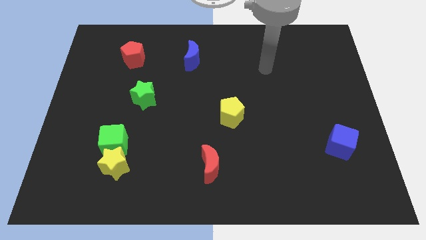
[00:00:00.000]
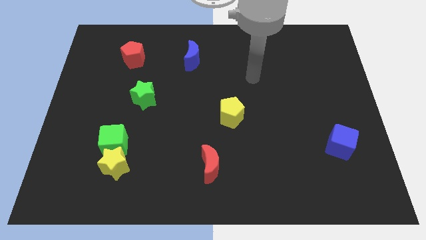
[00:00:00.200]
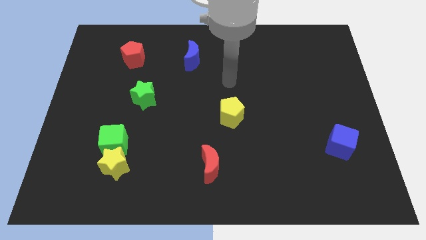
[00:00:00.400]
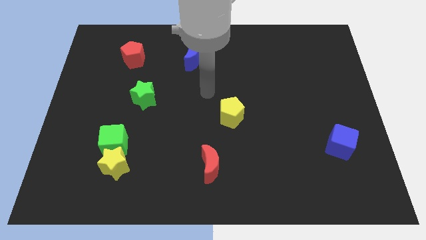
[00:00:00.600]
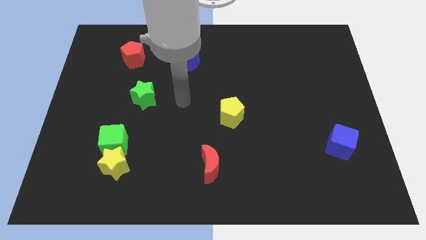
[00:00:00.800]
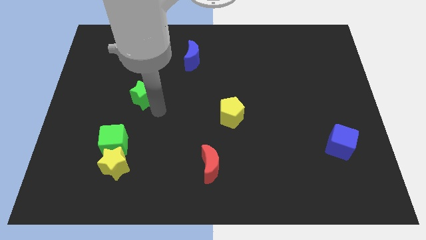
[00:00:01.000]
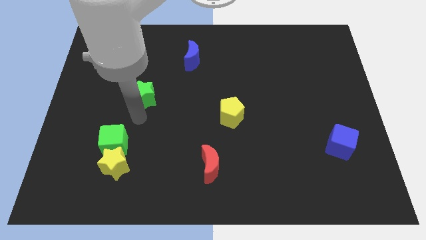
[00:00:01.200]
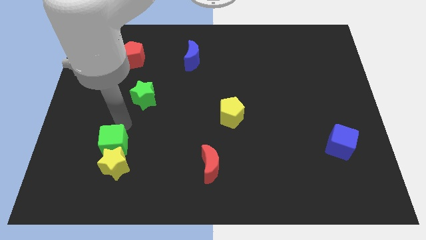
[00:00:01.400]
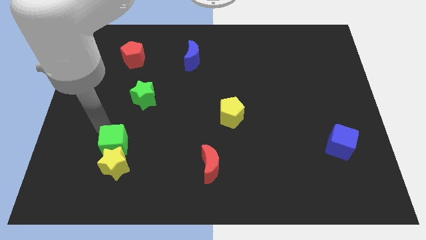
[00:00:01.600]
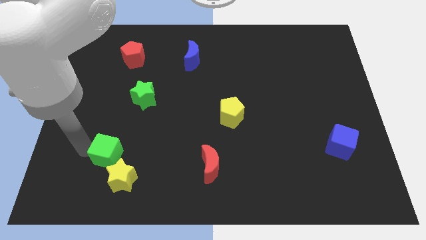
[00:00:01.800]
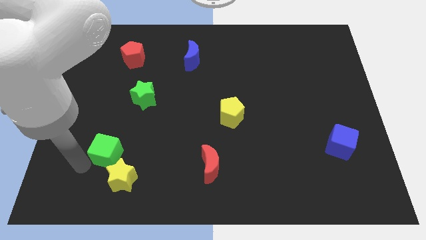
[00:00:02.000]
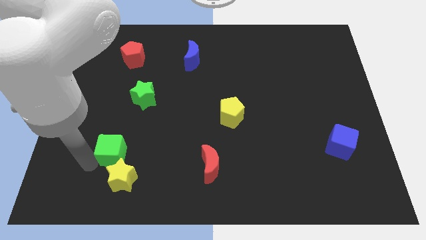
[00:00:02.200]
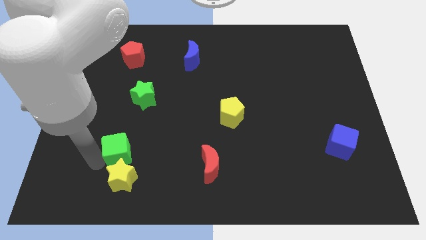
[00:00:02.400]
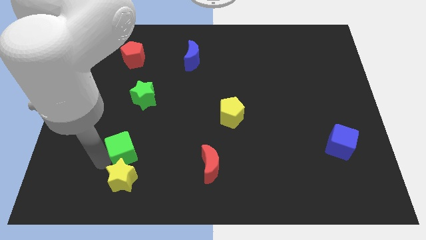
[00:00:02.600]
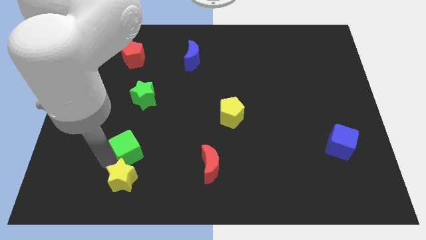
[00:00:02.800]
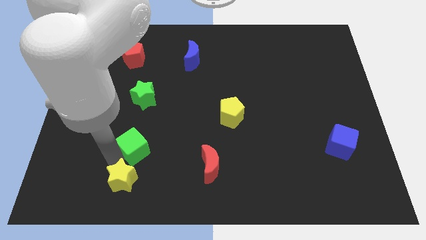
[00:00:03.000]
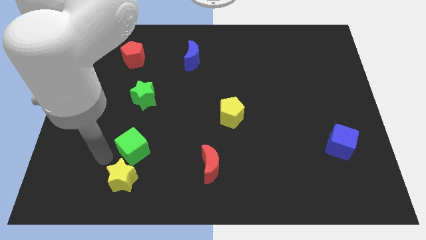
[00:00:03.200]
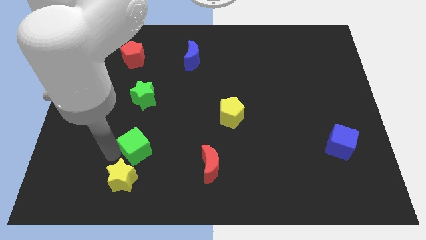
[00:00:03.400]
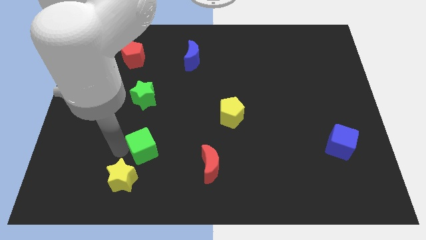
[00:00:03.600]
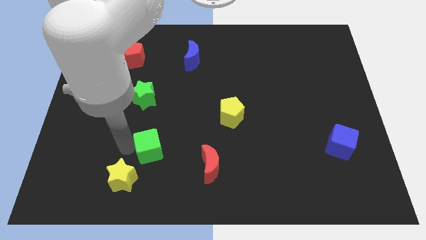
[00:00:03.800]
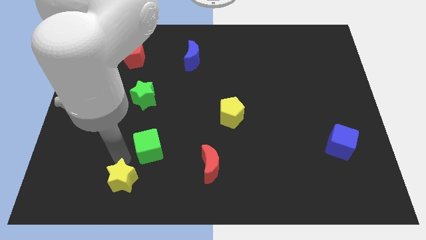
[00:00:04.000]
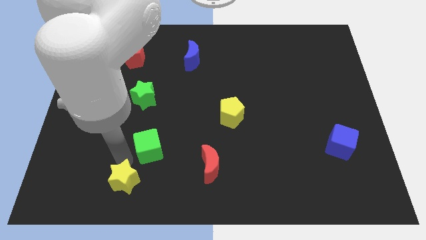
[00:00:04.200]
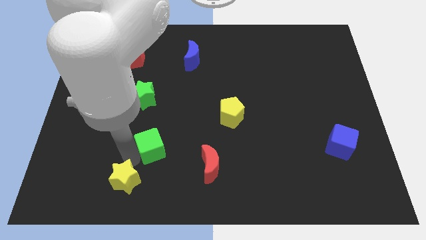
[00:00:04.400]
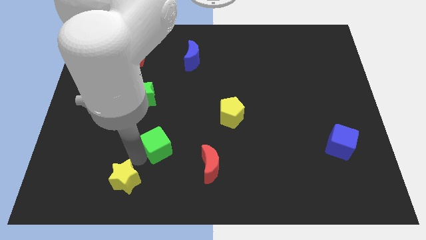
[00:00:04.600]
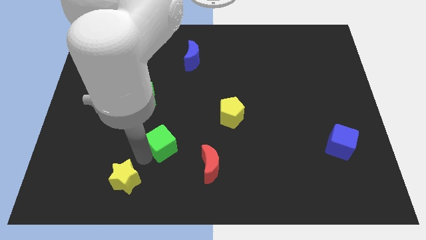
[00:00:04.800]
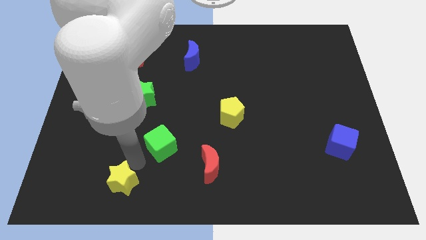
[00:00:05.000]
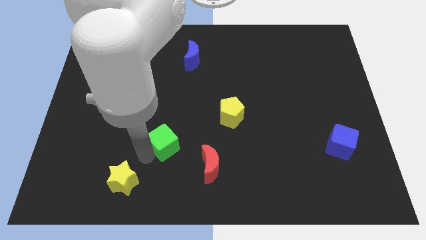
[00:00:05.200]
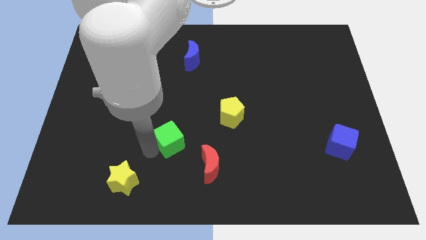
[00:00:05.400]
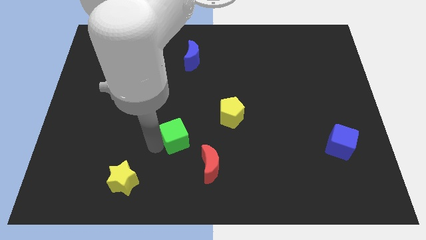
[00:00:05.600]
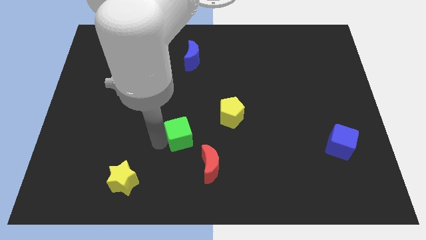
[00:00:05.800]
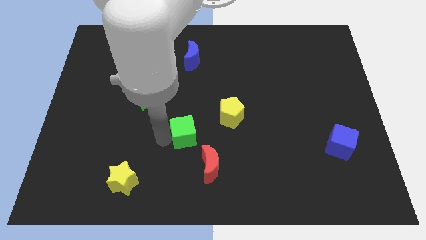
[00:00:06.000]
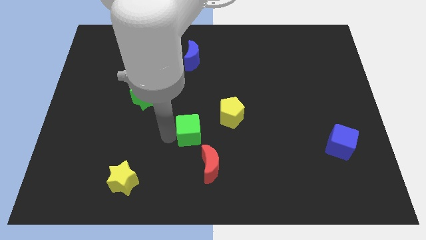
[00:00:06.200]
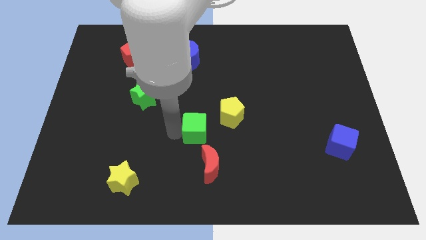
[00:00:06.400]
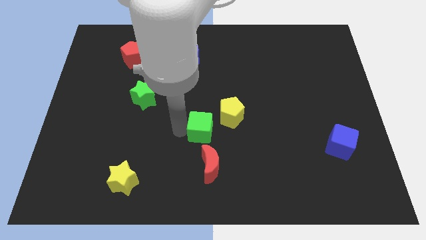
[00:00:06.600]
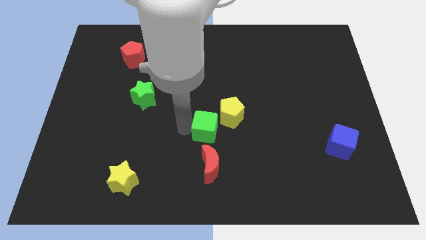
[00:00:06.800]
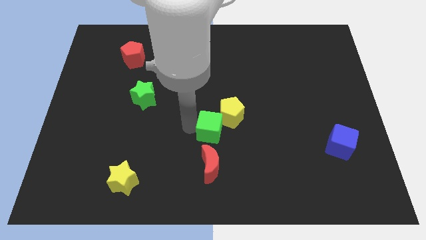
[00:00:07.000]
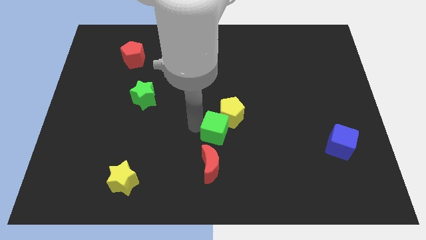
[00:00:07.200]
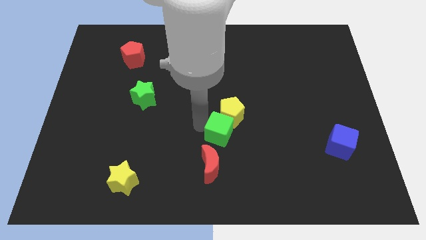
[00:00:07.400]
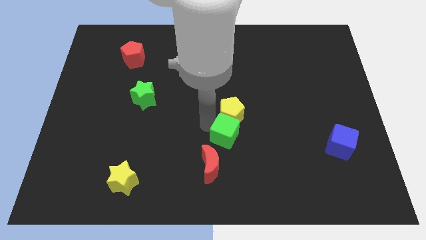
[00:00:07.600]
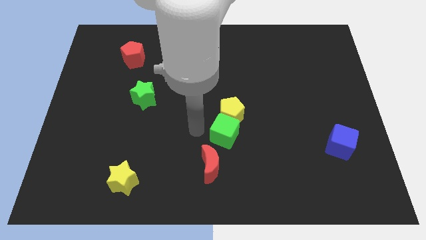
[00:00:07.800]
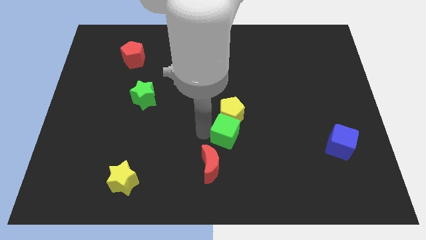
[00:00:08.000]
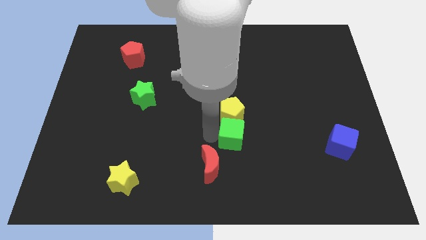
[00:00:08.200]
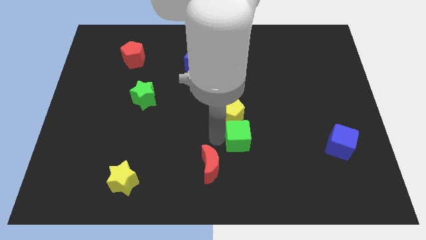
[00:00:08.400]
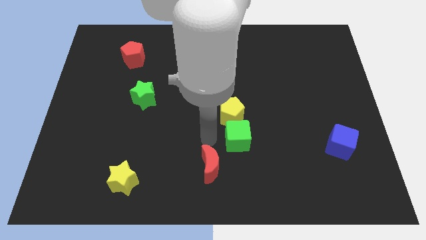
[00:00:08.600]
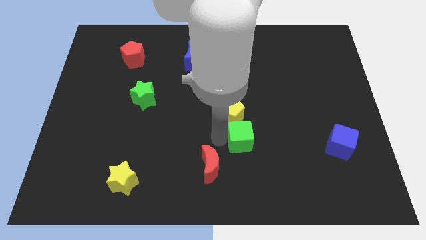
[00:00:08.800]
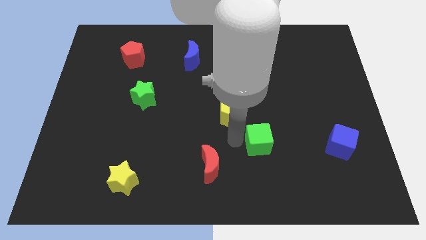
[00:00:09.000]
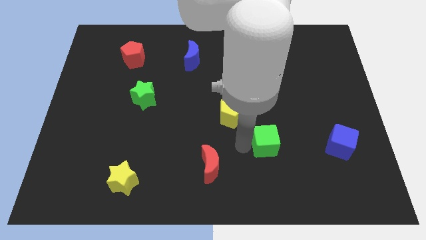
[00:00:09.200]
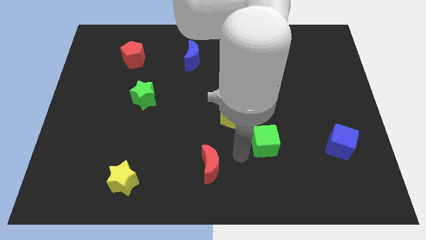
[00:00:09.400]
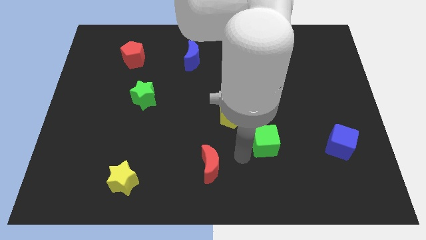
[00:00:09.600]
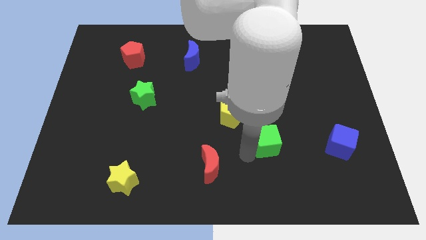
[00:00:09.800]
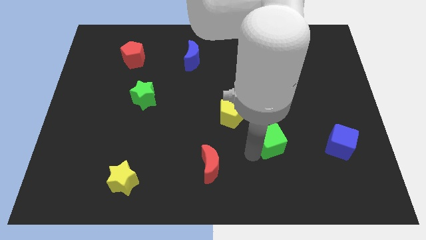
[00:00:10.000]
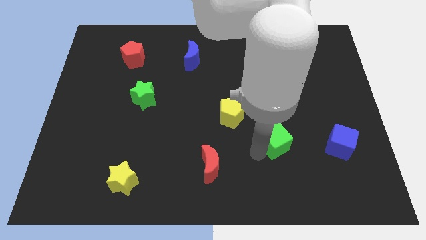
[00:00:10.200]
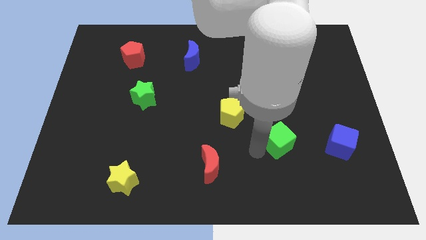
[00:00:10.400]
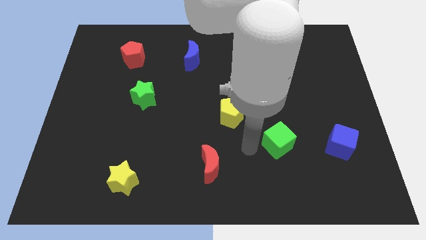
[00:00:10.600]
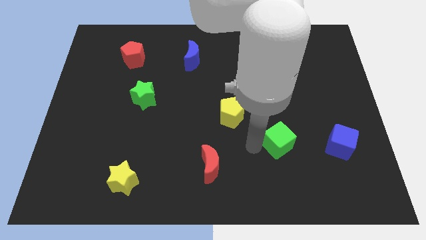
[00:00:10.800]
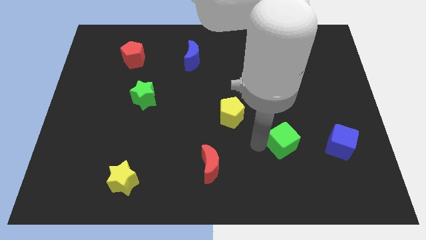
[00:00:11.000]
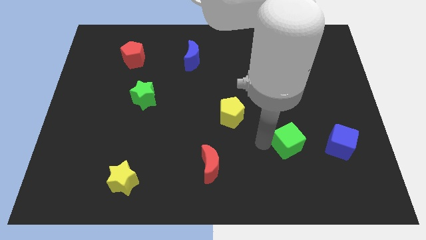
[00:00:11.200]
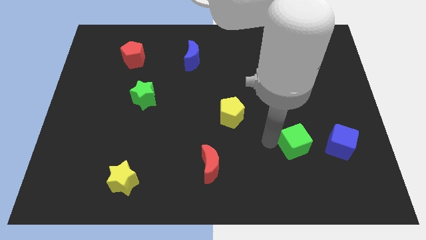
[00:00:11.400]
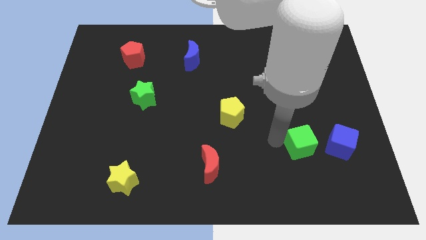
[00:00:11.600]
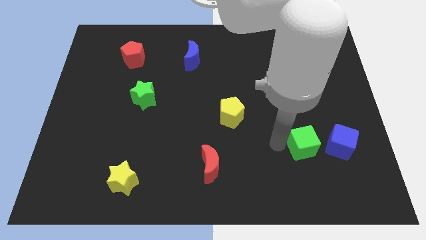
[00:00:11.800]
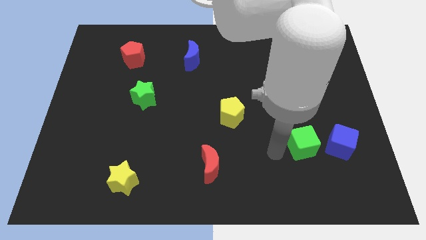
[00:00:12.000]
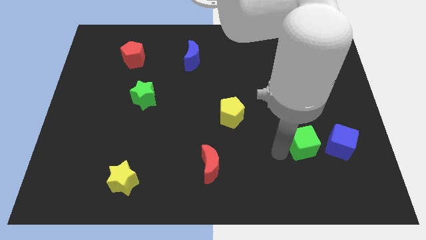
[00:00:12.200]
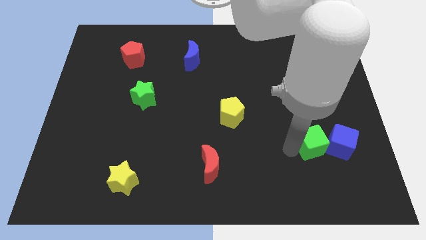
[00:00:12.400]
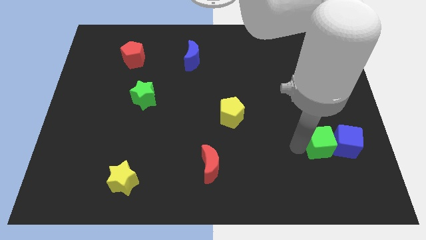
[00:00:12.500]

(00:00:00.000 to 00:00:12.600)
put the green cube to the blue cube

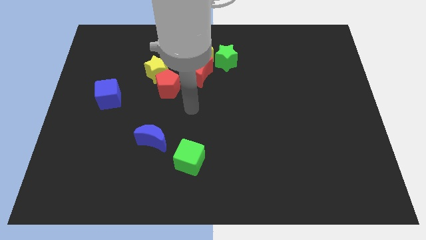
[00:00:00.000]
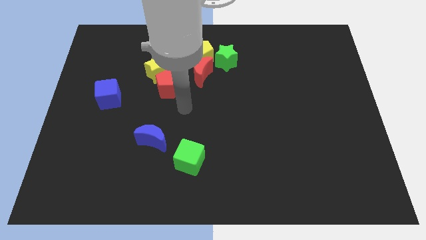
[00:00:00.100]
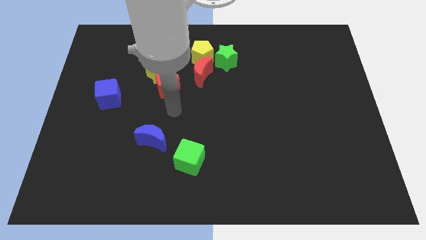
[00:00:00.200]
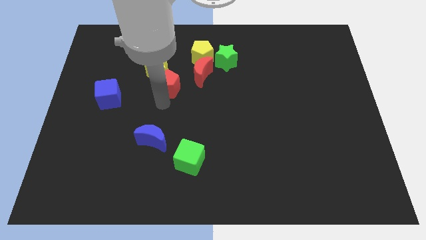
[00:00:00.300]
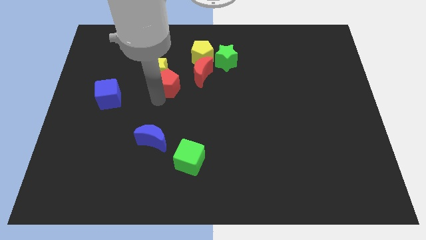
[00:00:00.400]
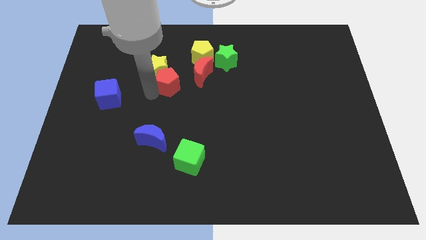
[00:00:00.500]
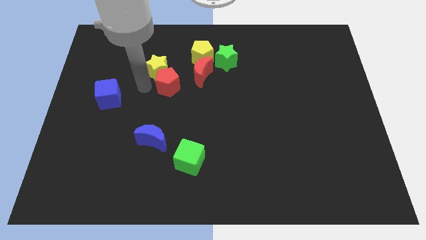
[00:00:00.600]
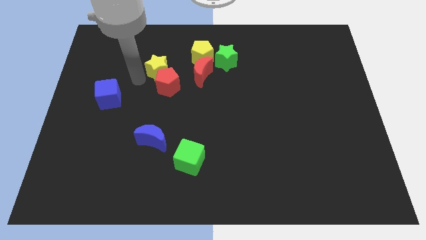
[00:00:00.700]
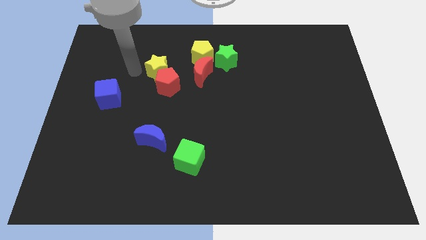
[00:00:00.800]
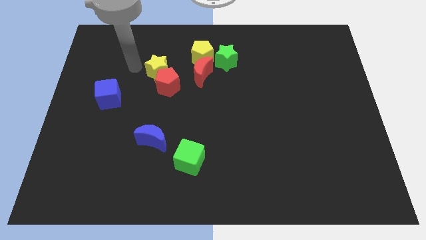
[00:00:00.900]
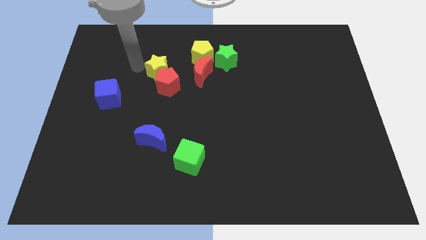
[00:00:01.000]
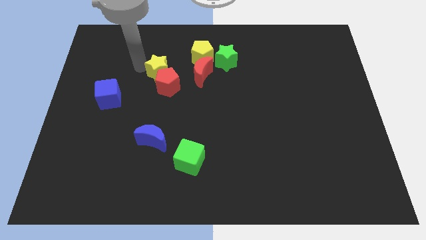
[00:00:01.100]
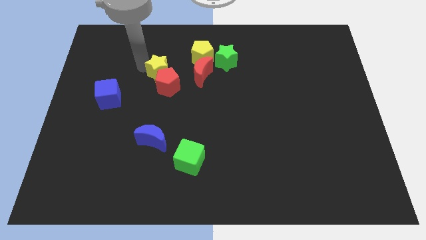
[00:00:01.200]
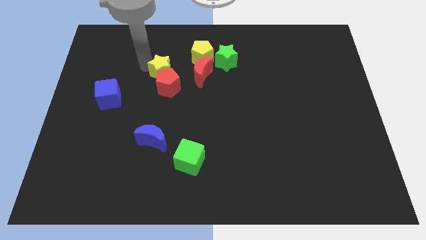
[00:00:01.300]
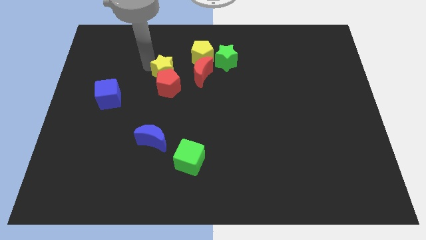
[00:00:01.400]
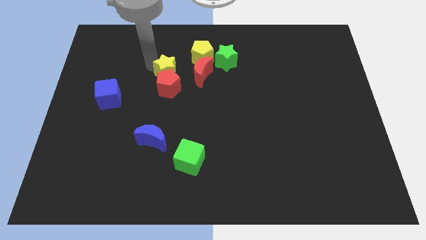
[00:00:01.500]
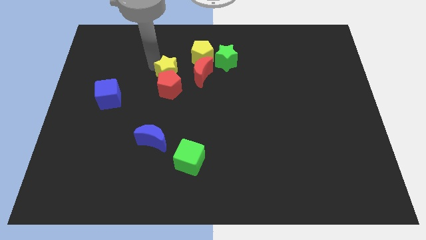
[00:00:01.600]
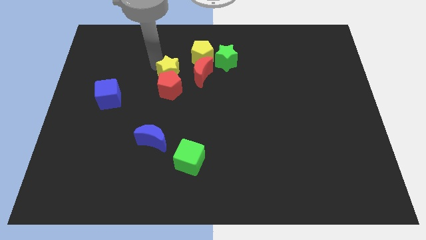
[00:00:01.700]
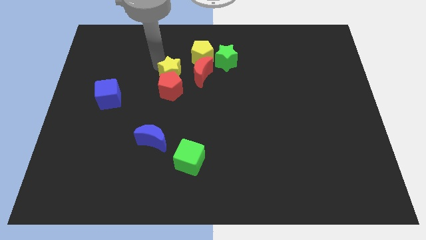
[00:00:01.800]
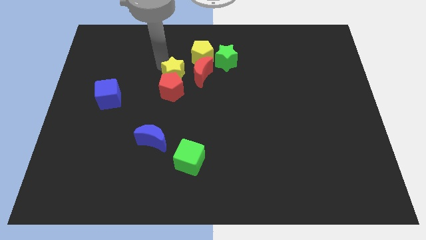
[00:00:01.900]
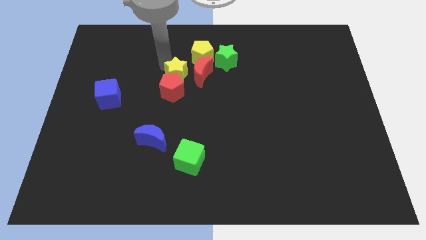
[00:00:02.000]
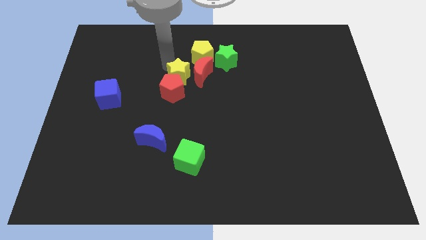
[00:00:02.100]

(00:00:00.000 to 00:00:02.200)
move the yellow star to the red moon
